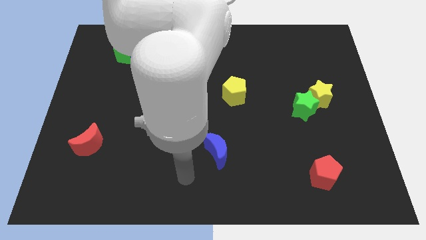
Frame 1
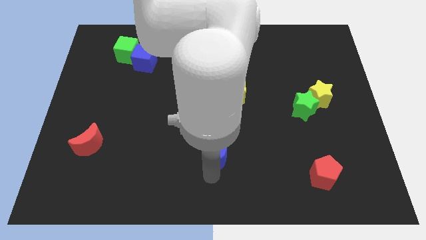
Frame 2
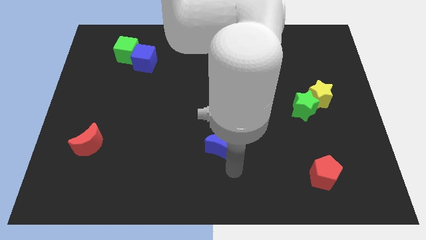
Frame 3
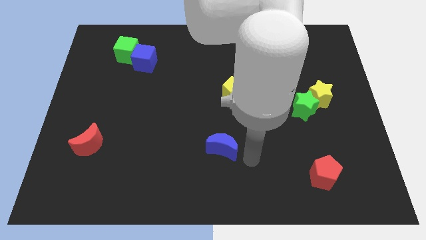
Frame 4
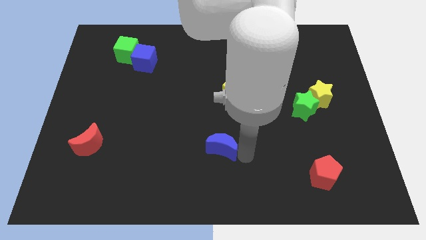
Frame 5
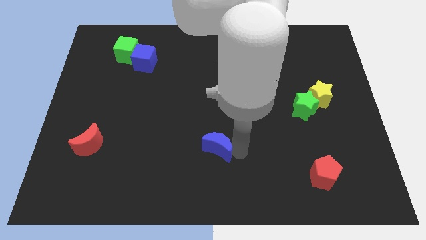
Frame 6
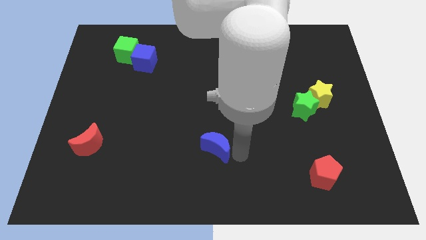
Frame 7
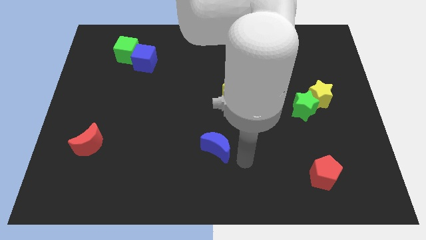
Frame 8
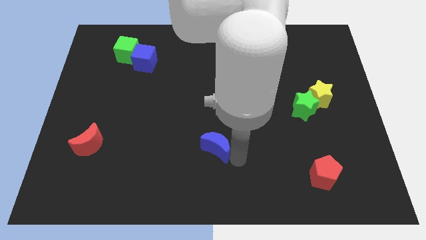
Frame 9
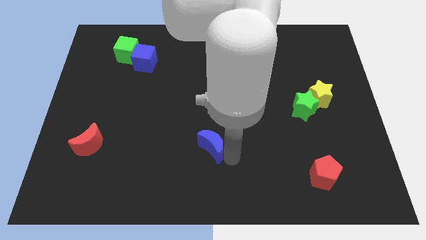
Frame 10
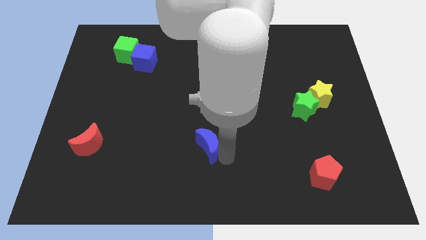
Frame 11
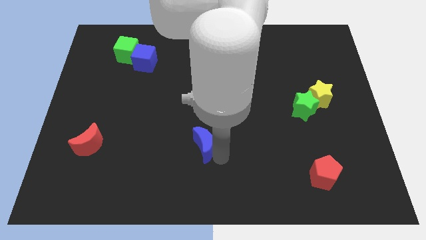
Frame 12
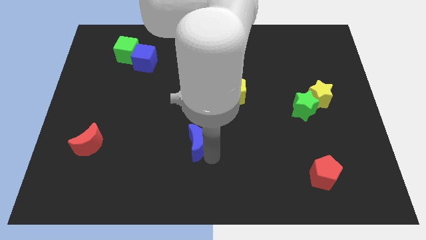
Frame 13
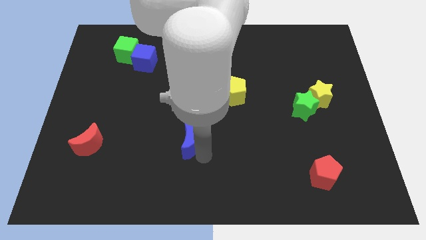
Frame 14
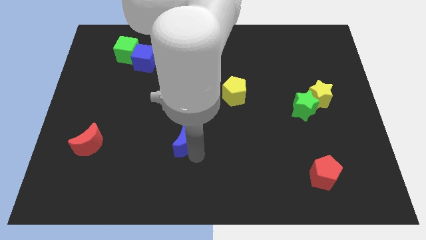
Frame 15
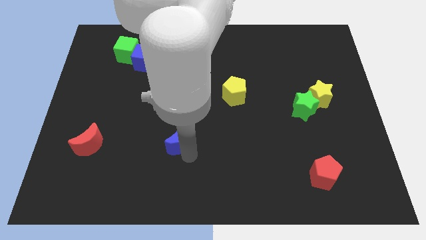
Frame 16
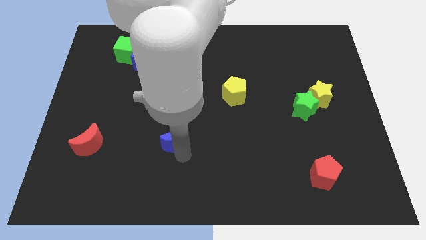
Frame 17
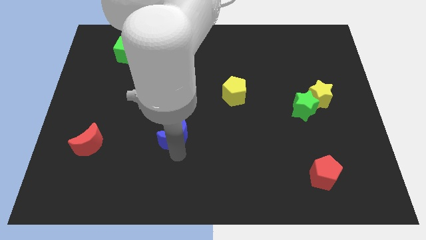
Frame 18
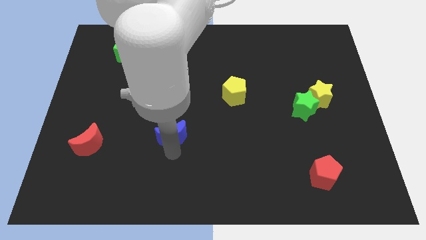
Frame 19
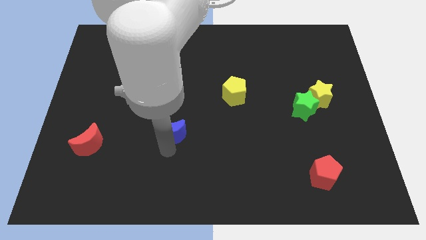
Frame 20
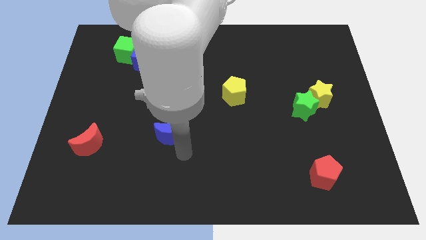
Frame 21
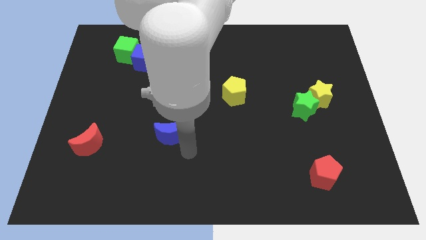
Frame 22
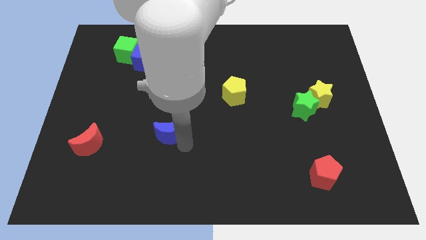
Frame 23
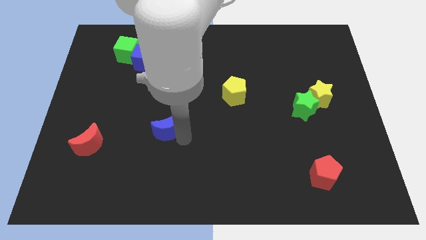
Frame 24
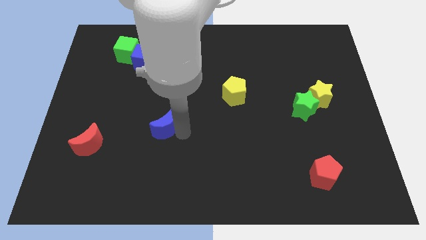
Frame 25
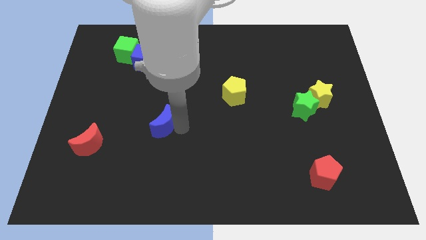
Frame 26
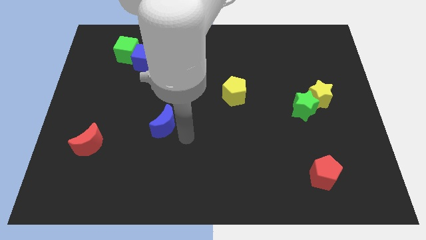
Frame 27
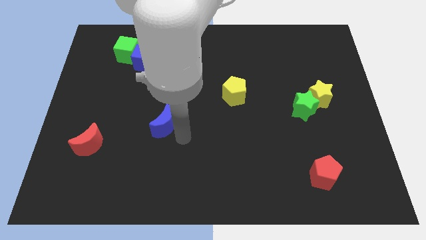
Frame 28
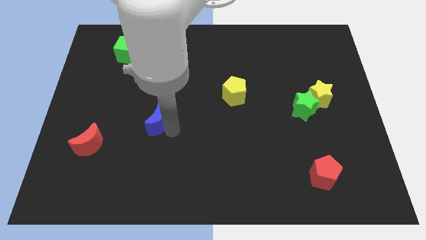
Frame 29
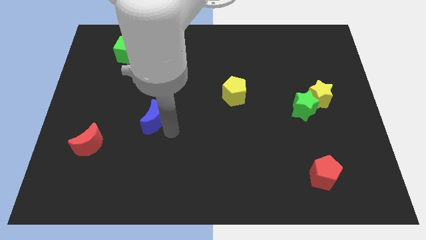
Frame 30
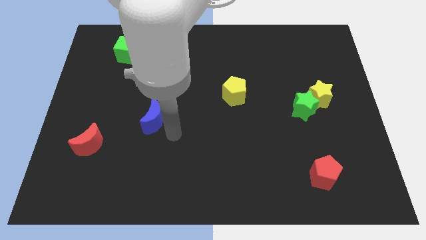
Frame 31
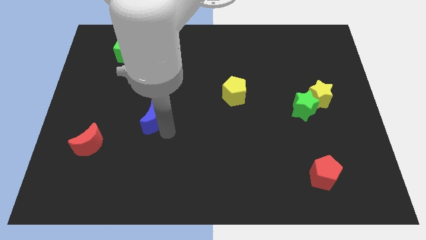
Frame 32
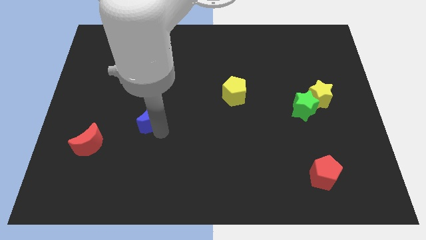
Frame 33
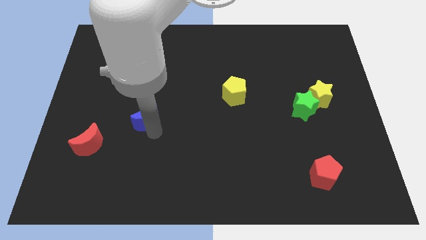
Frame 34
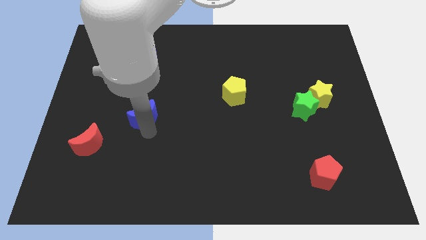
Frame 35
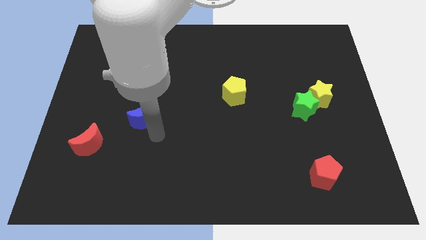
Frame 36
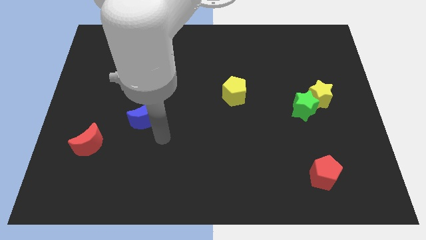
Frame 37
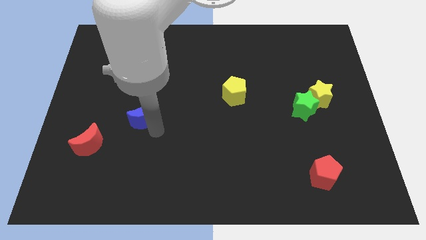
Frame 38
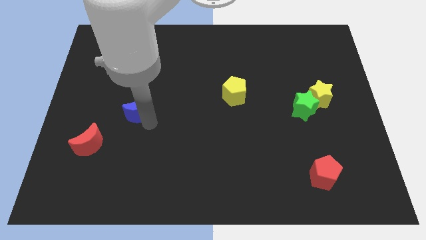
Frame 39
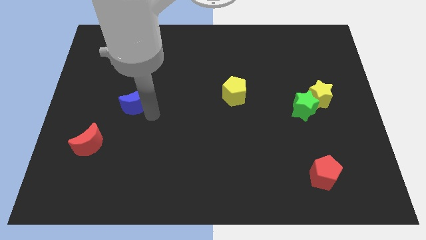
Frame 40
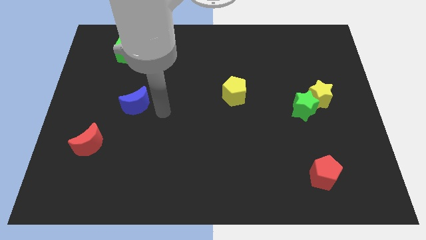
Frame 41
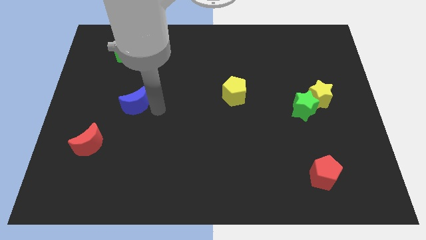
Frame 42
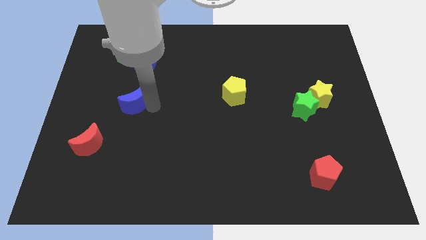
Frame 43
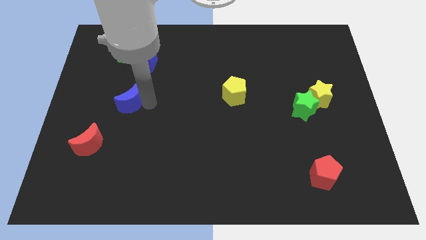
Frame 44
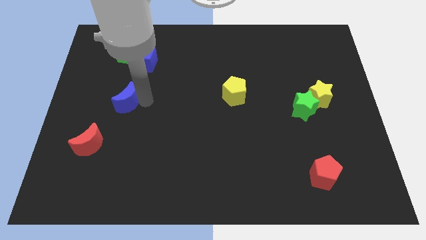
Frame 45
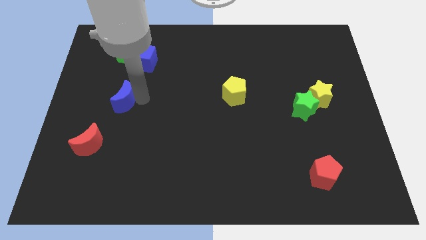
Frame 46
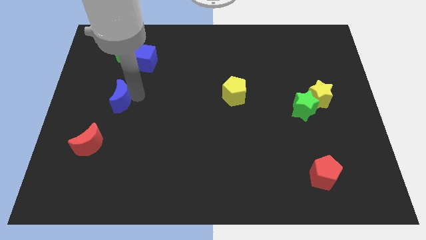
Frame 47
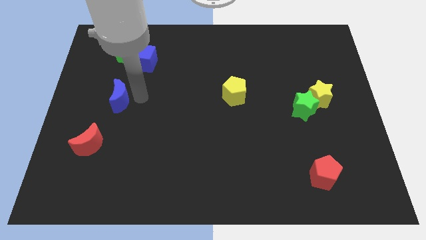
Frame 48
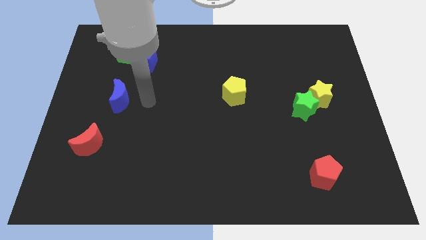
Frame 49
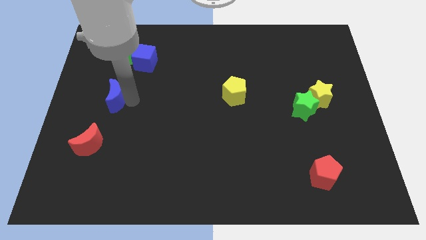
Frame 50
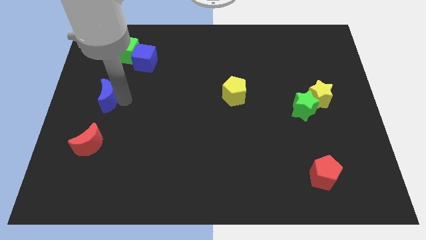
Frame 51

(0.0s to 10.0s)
move the blue moon to the left side of the board

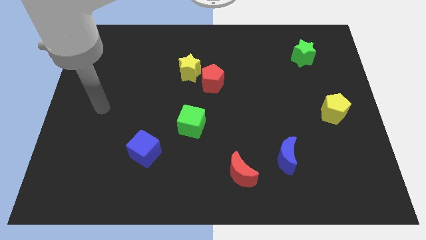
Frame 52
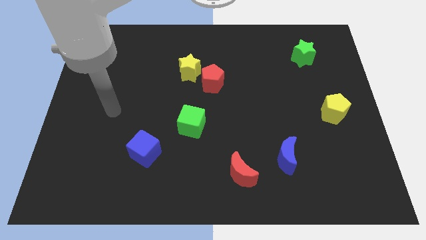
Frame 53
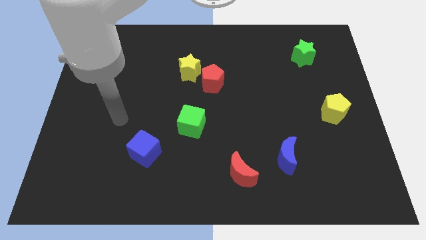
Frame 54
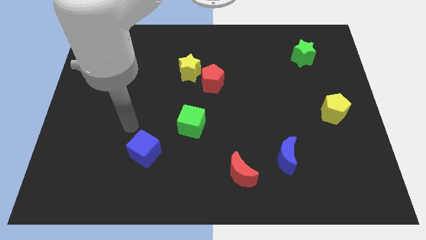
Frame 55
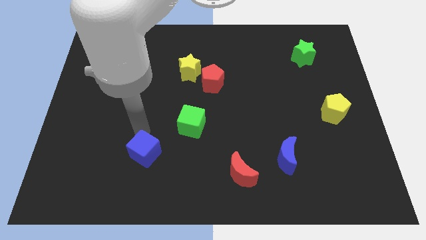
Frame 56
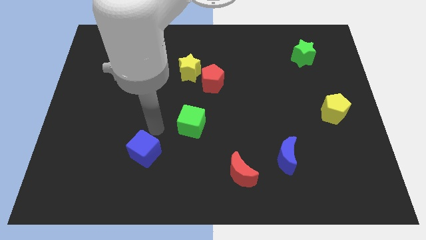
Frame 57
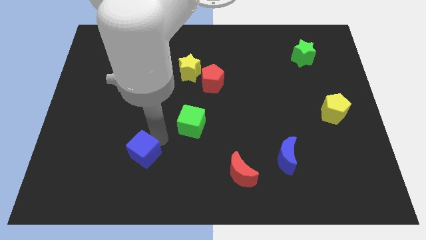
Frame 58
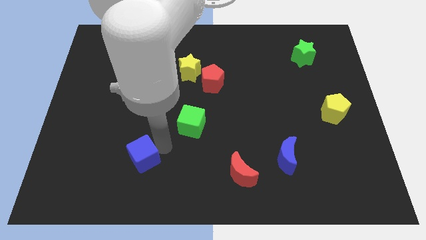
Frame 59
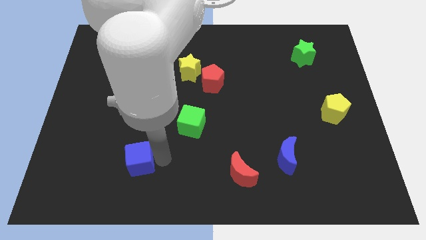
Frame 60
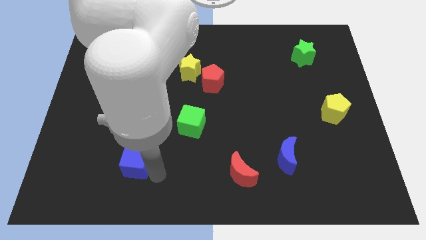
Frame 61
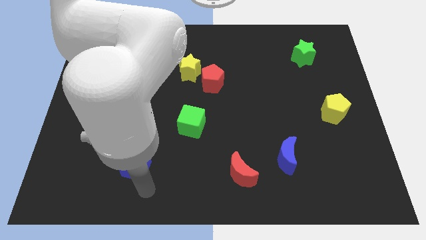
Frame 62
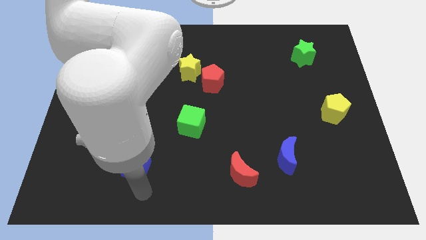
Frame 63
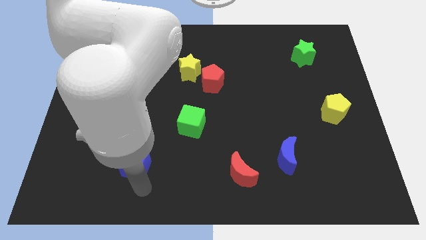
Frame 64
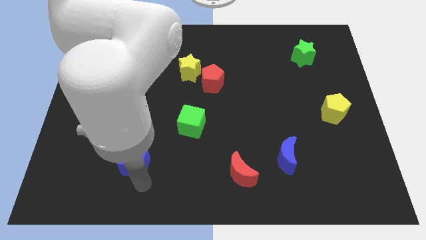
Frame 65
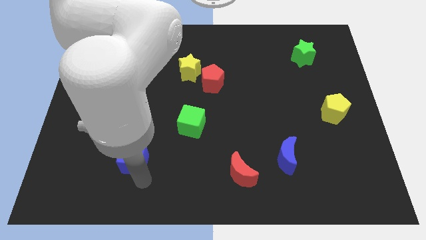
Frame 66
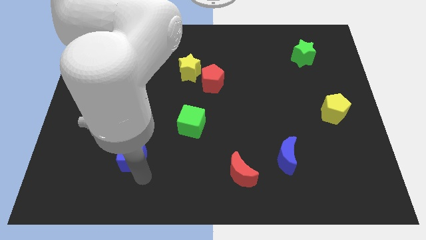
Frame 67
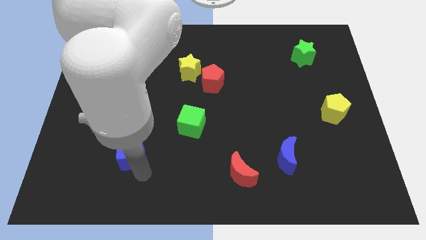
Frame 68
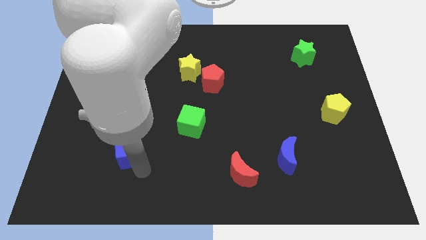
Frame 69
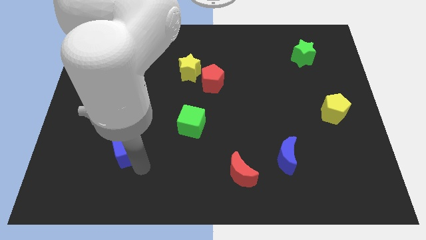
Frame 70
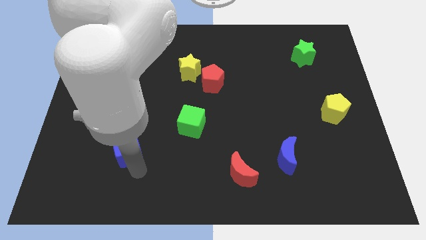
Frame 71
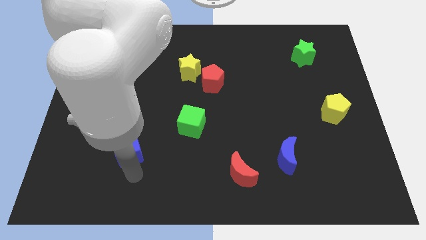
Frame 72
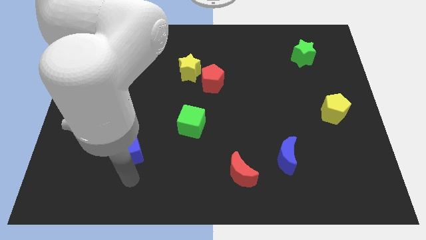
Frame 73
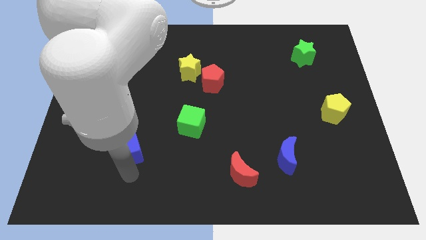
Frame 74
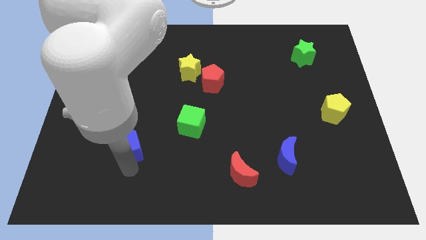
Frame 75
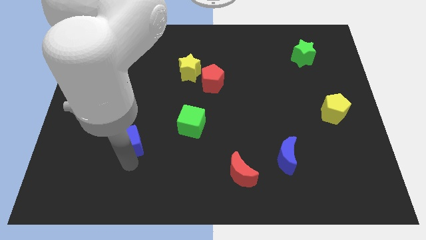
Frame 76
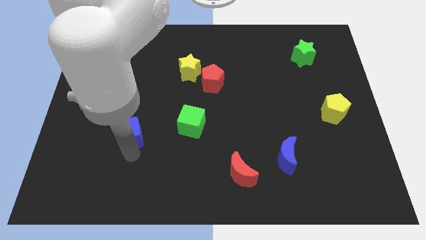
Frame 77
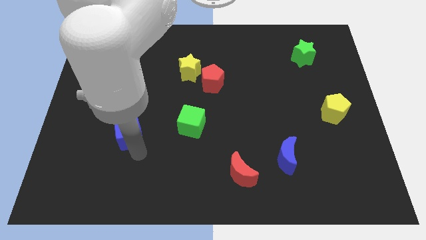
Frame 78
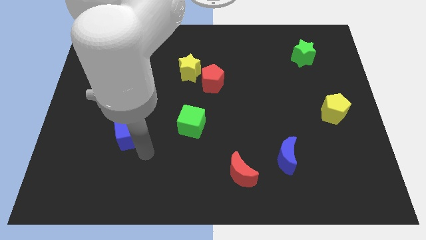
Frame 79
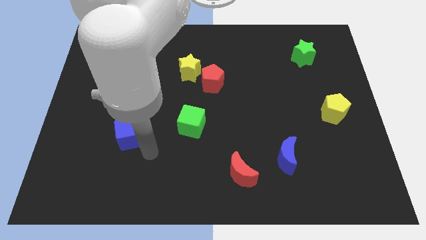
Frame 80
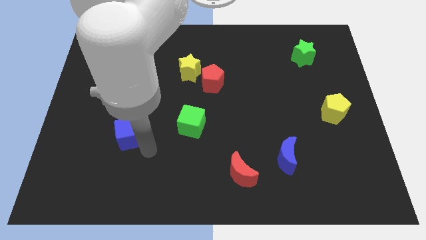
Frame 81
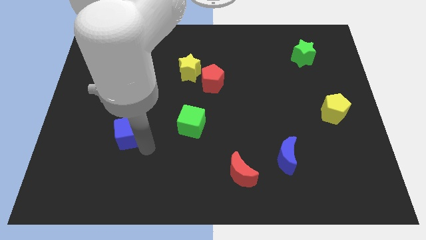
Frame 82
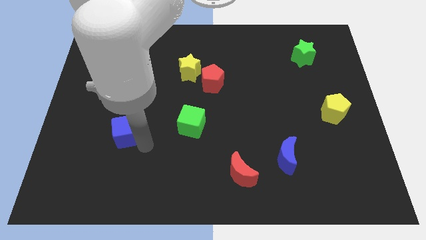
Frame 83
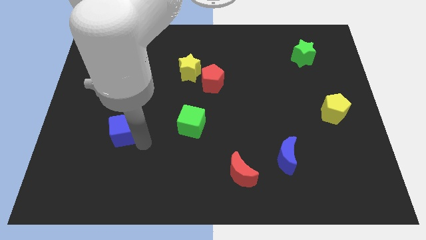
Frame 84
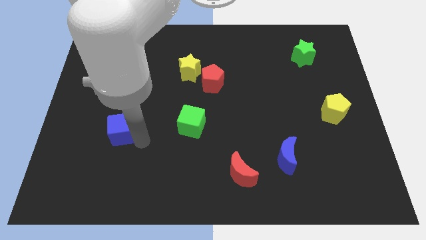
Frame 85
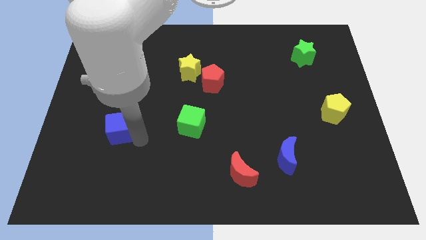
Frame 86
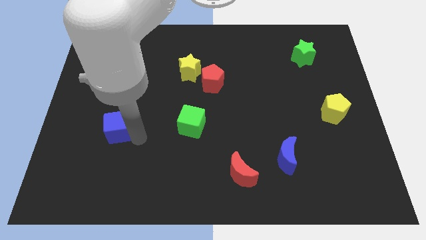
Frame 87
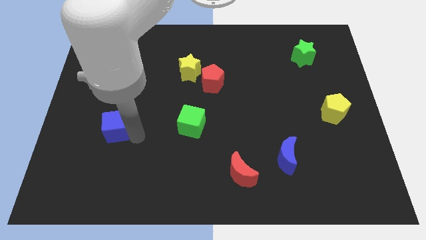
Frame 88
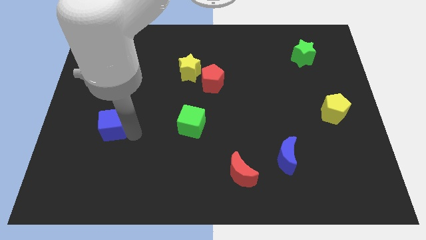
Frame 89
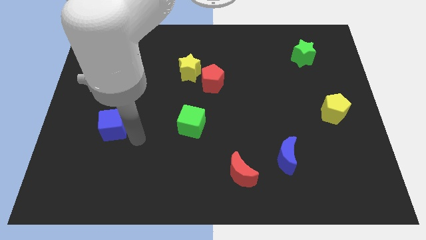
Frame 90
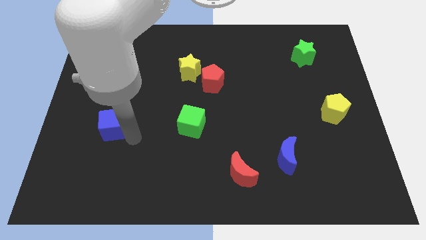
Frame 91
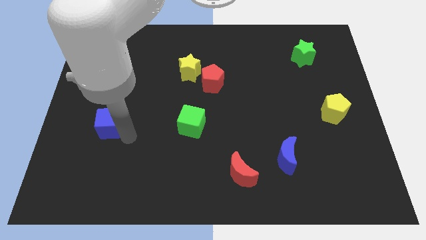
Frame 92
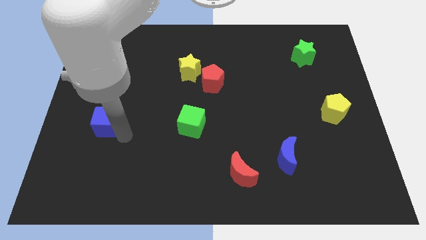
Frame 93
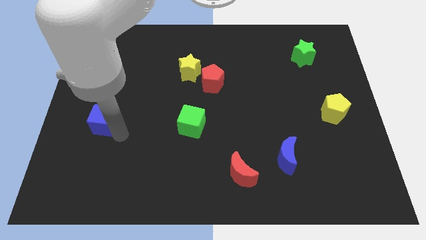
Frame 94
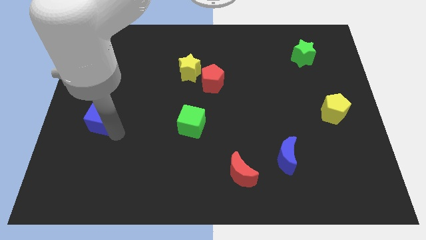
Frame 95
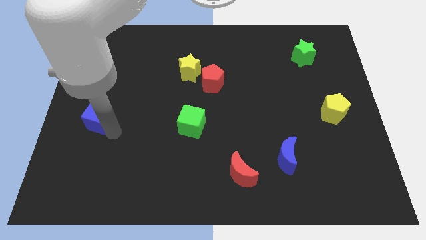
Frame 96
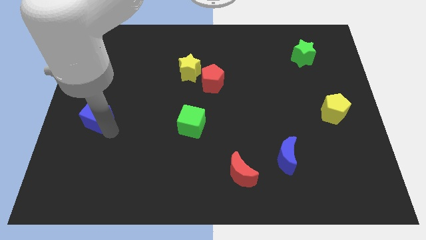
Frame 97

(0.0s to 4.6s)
put the blue cube to the left side
